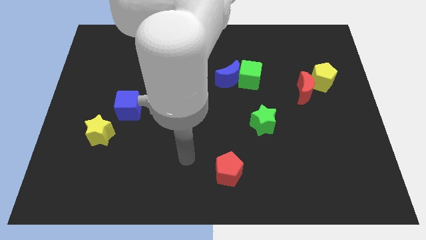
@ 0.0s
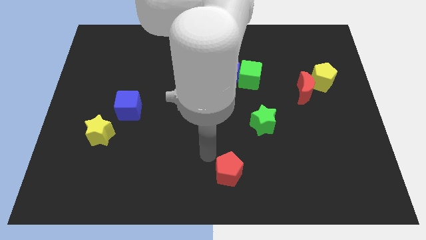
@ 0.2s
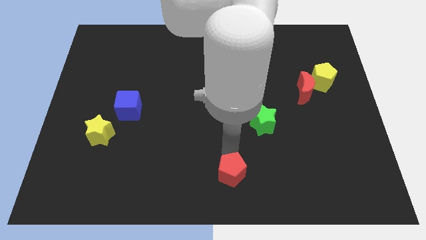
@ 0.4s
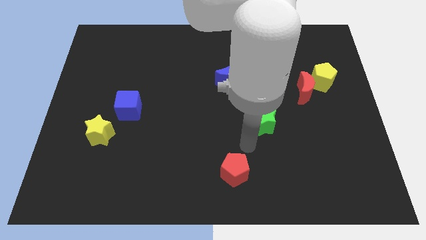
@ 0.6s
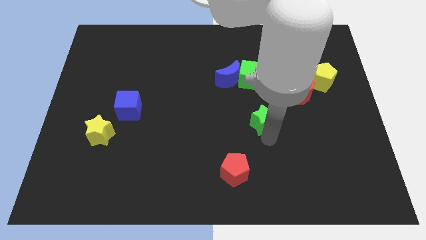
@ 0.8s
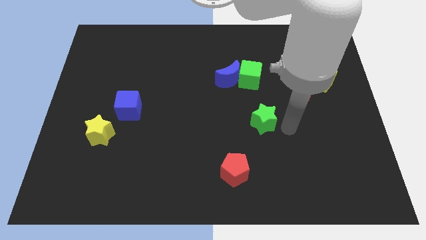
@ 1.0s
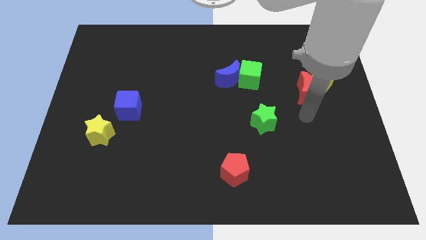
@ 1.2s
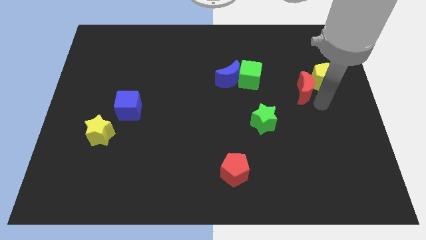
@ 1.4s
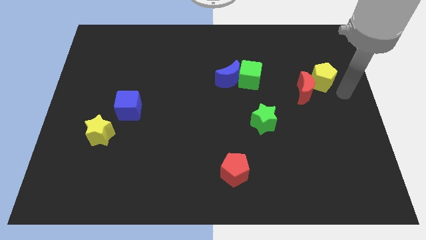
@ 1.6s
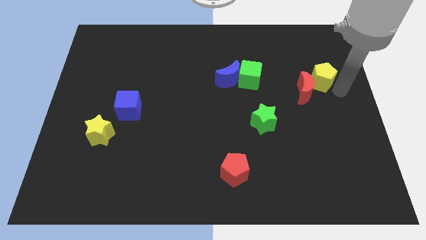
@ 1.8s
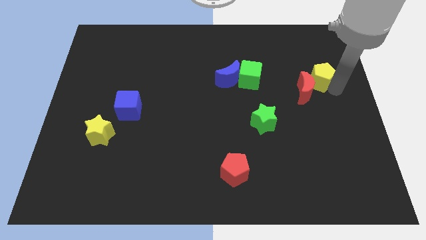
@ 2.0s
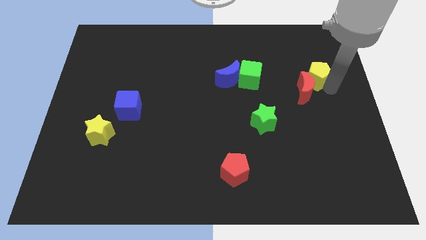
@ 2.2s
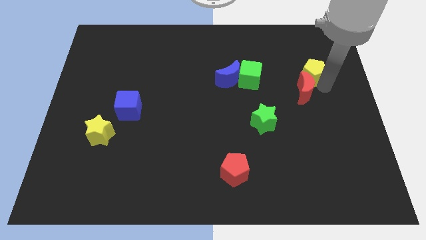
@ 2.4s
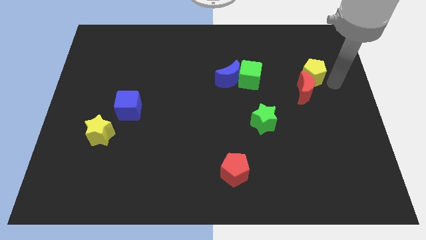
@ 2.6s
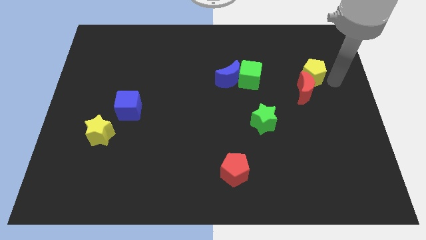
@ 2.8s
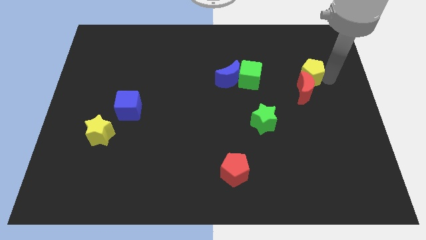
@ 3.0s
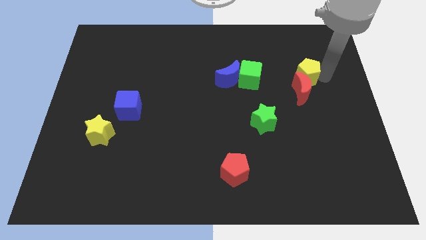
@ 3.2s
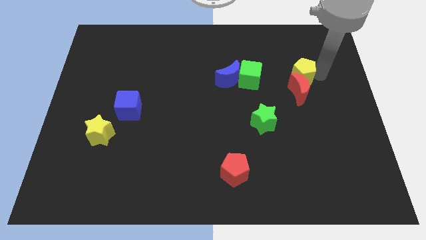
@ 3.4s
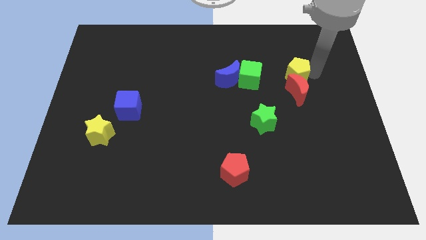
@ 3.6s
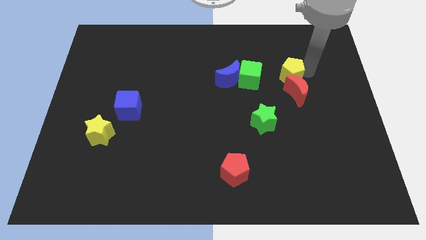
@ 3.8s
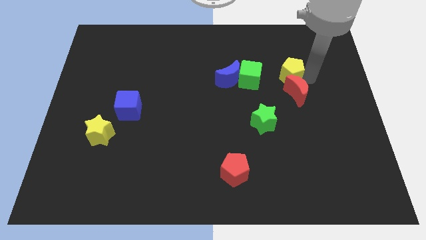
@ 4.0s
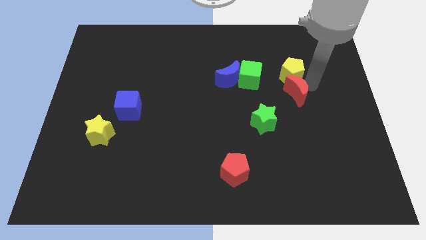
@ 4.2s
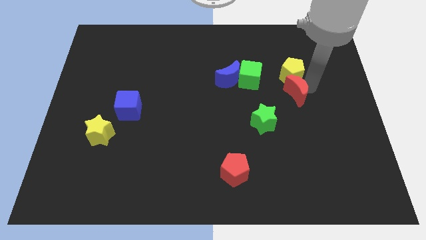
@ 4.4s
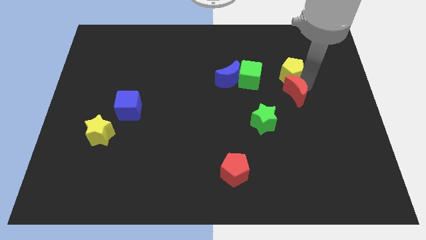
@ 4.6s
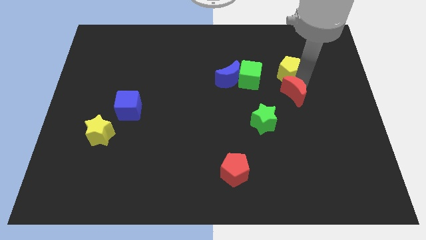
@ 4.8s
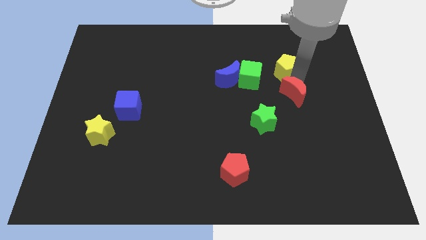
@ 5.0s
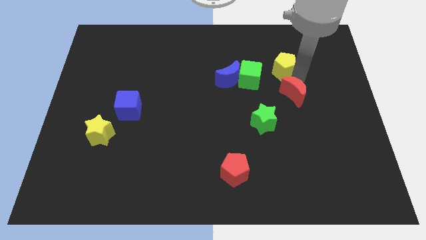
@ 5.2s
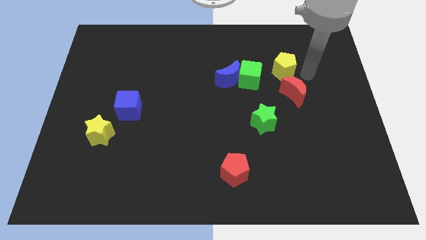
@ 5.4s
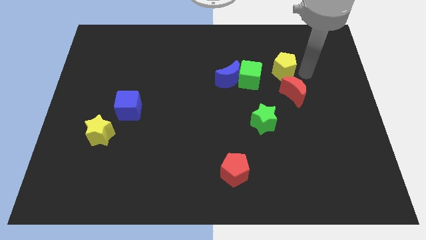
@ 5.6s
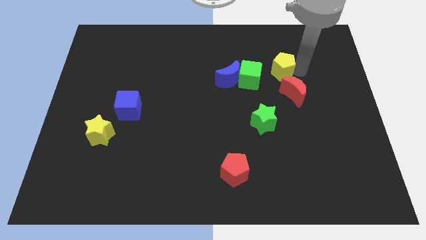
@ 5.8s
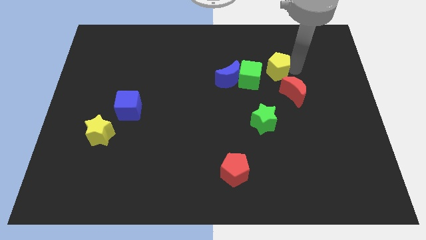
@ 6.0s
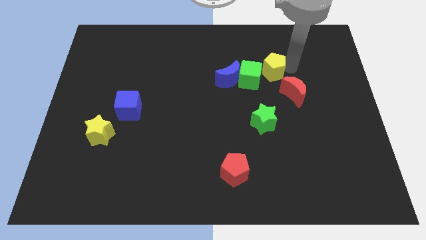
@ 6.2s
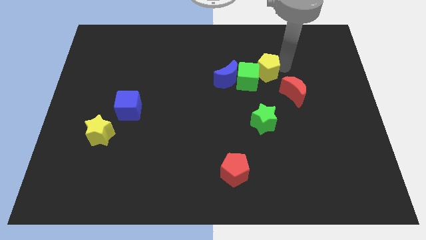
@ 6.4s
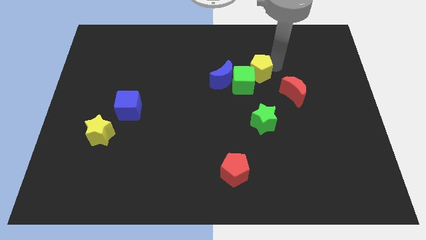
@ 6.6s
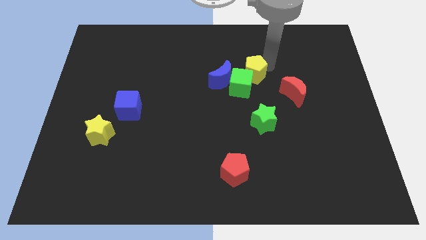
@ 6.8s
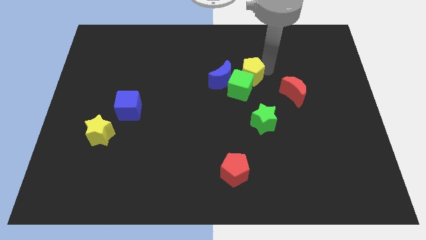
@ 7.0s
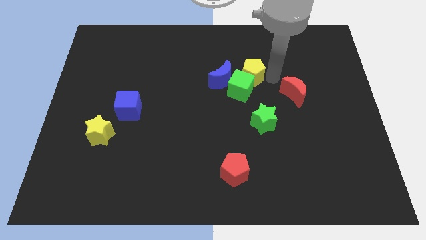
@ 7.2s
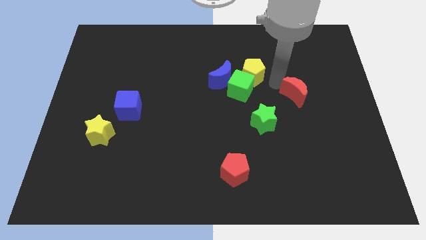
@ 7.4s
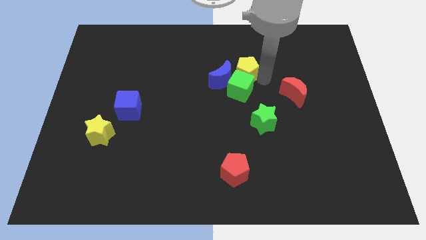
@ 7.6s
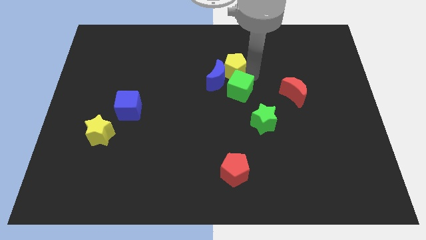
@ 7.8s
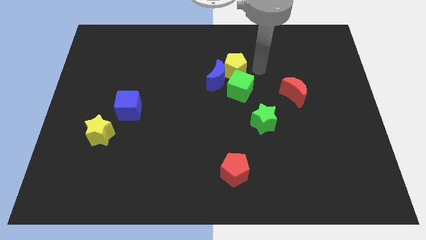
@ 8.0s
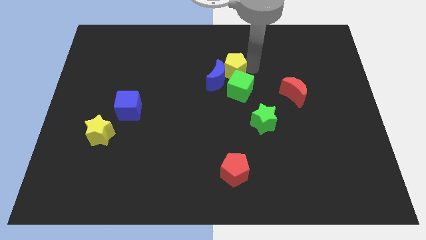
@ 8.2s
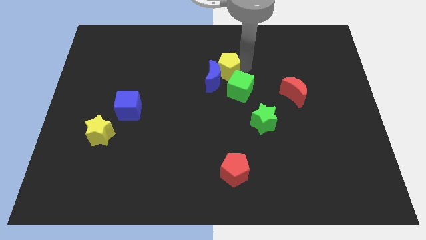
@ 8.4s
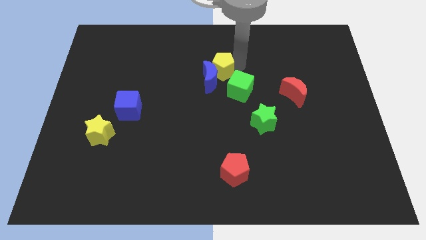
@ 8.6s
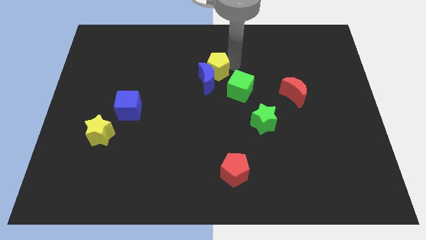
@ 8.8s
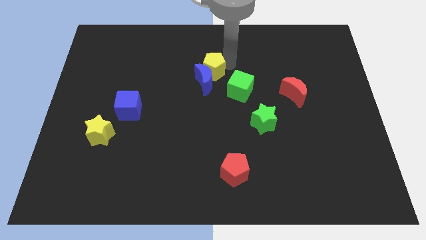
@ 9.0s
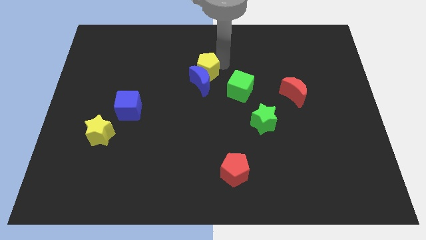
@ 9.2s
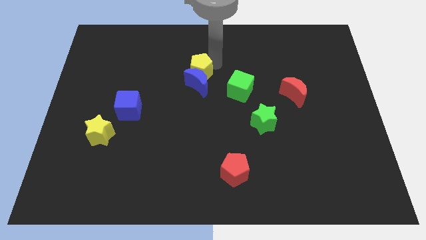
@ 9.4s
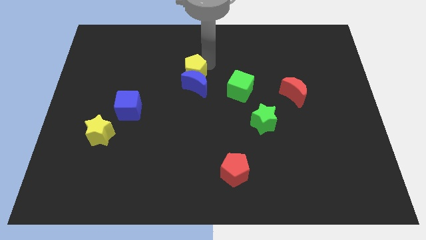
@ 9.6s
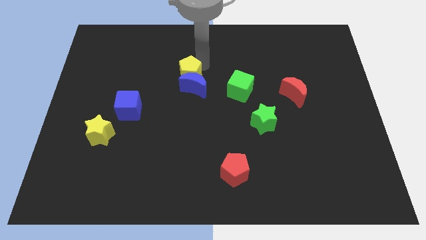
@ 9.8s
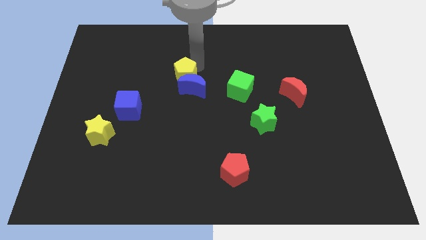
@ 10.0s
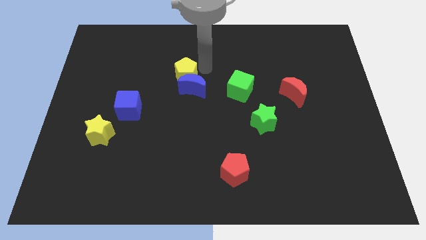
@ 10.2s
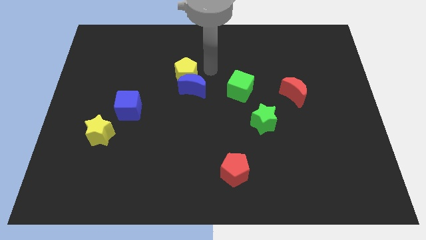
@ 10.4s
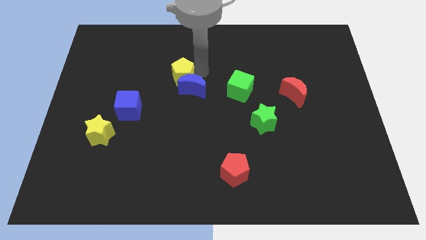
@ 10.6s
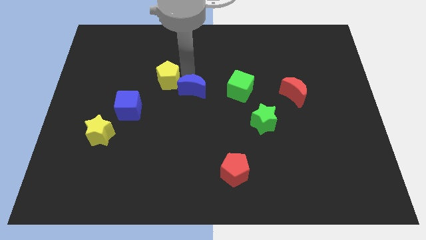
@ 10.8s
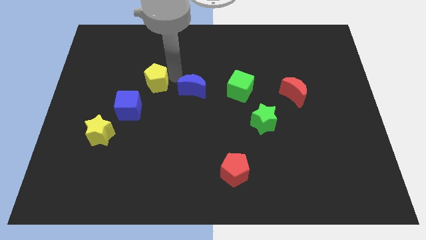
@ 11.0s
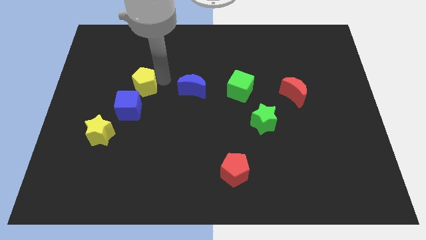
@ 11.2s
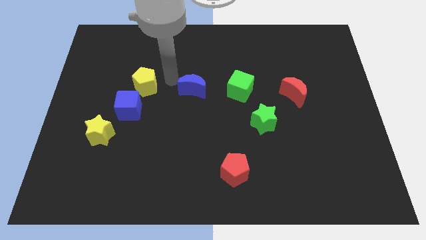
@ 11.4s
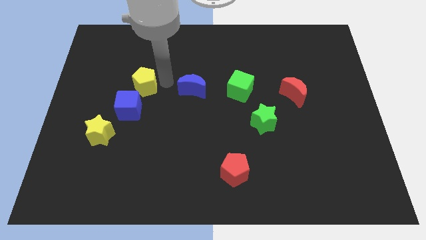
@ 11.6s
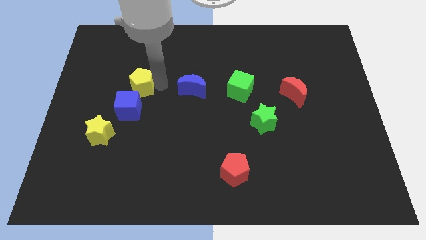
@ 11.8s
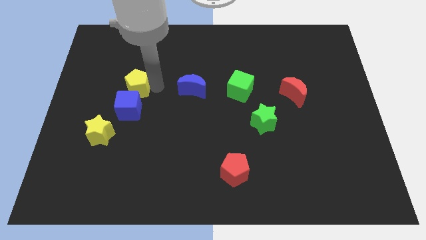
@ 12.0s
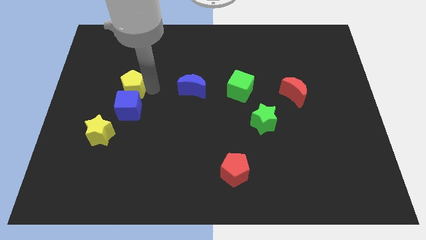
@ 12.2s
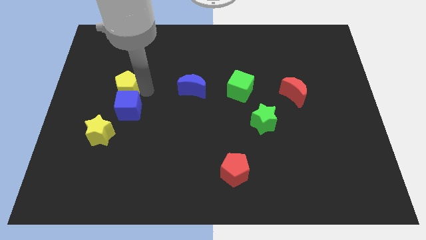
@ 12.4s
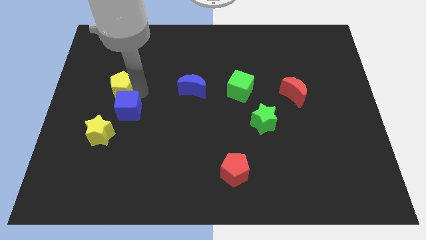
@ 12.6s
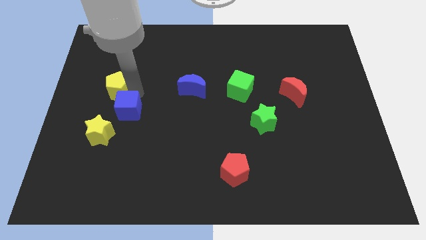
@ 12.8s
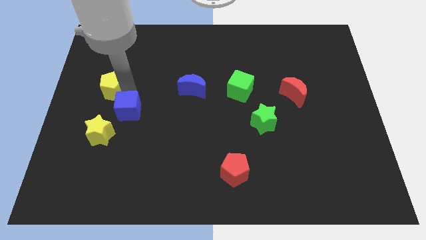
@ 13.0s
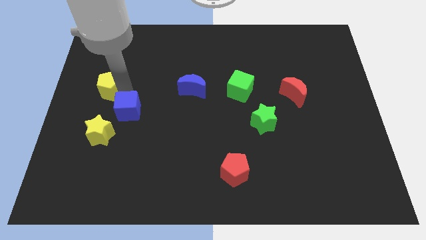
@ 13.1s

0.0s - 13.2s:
slide the yellow pentagon to the center left
